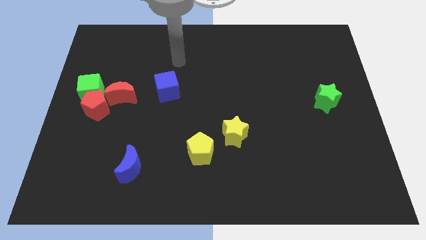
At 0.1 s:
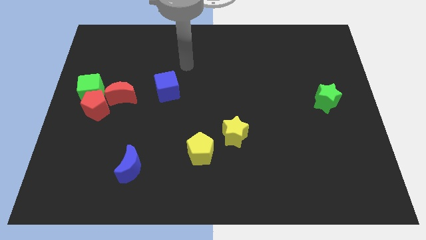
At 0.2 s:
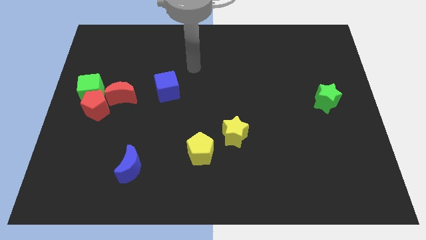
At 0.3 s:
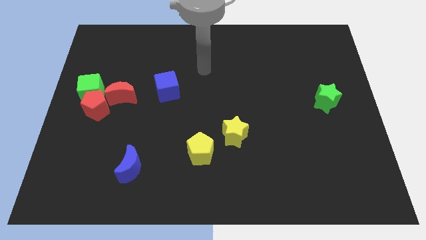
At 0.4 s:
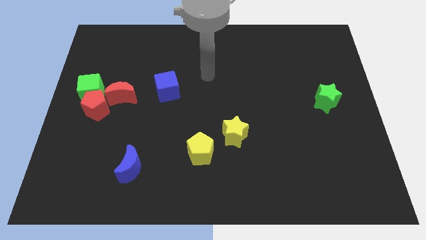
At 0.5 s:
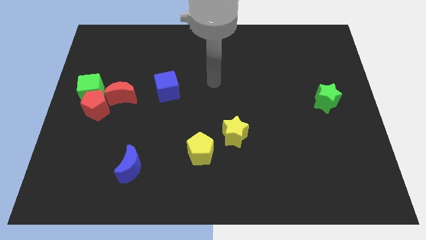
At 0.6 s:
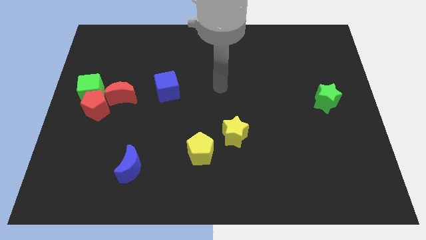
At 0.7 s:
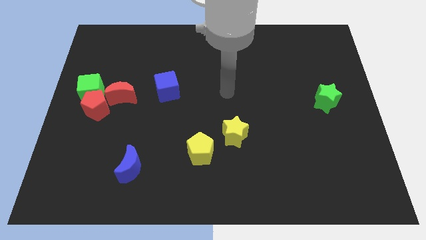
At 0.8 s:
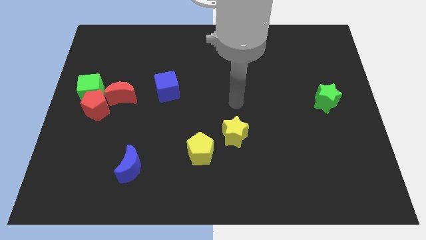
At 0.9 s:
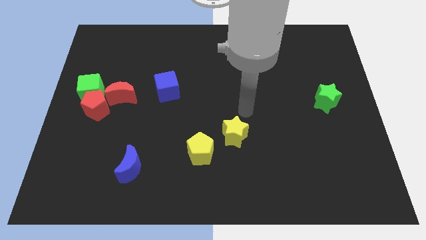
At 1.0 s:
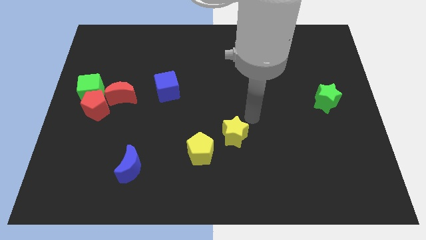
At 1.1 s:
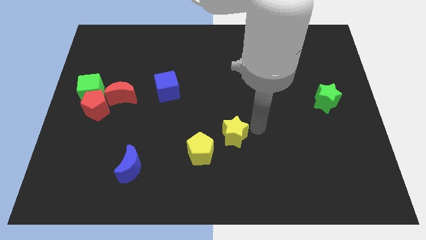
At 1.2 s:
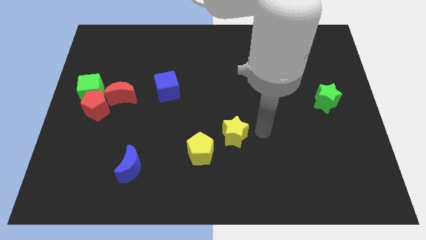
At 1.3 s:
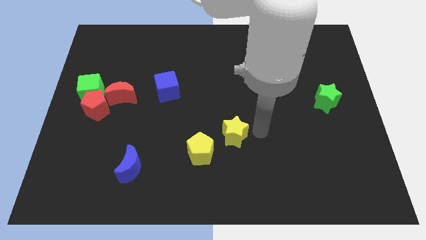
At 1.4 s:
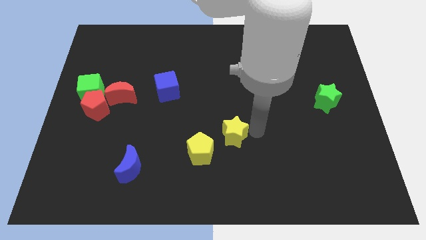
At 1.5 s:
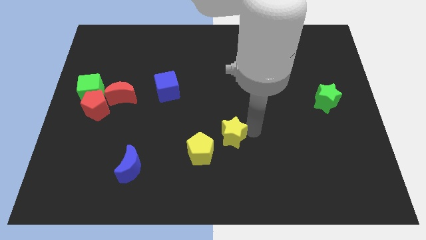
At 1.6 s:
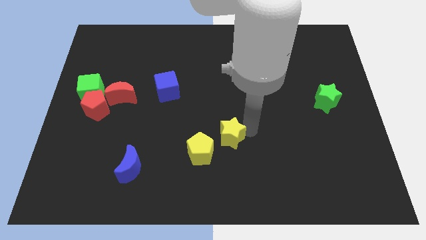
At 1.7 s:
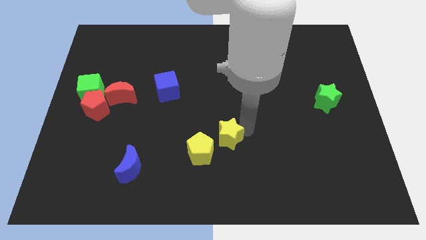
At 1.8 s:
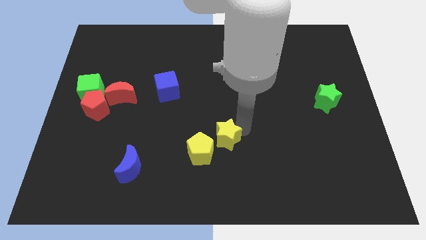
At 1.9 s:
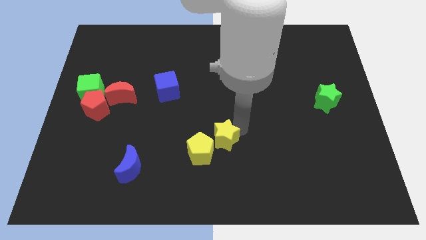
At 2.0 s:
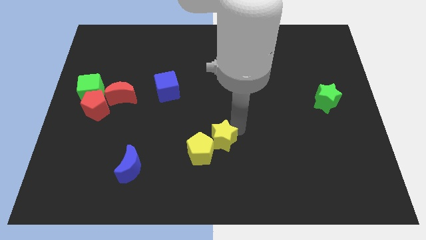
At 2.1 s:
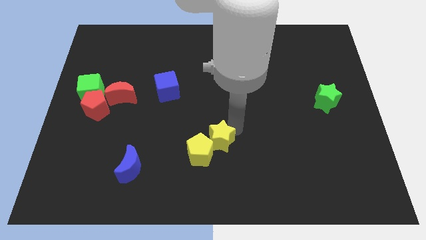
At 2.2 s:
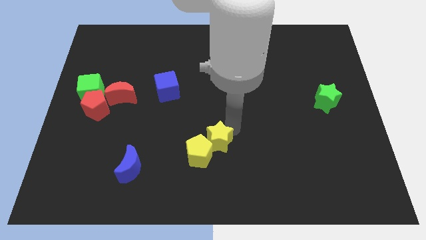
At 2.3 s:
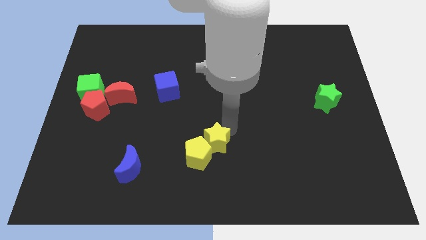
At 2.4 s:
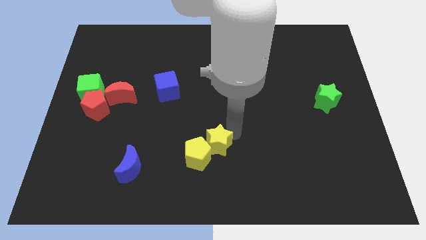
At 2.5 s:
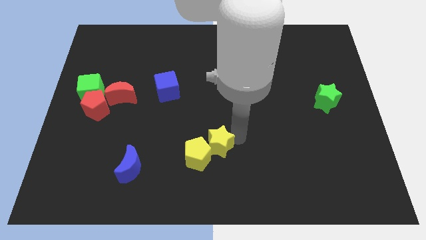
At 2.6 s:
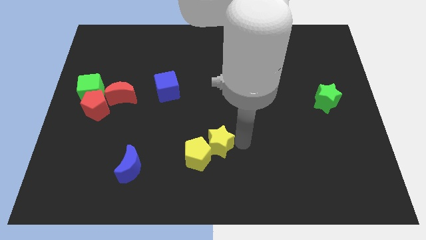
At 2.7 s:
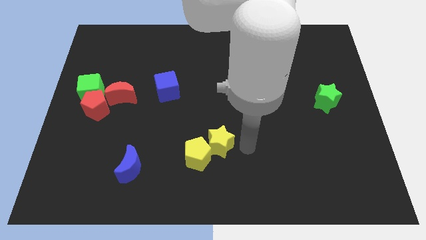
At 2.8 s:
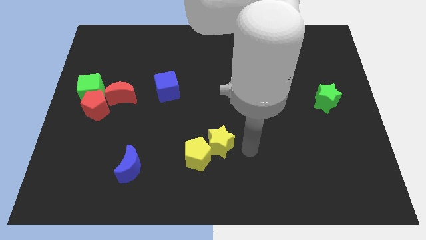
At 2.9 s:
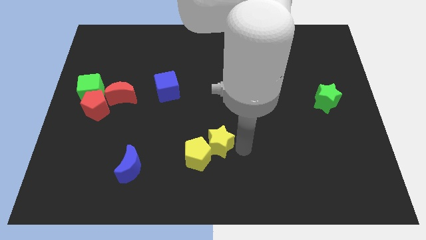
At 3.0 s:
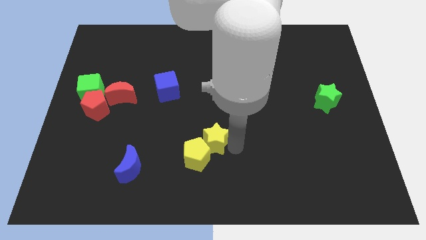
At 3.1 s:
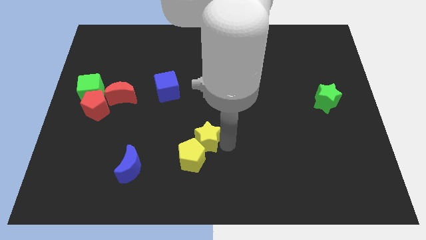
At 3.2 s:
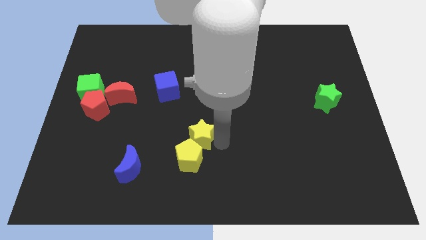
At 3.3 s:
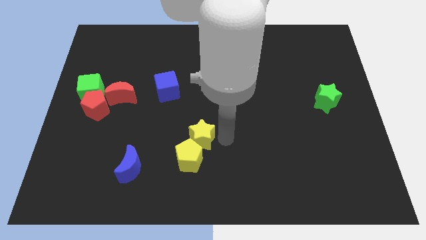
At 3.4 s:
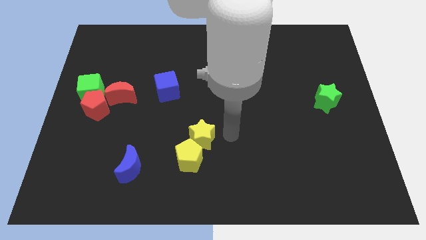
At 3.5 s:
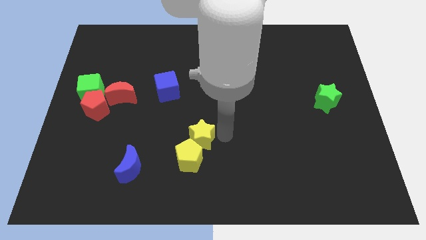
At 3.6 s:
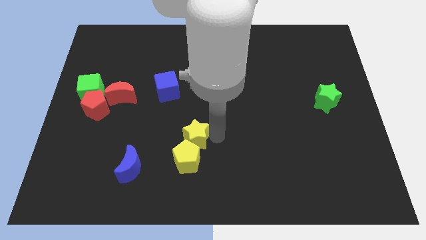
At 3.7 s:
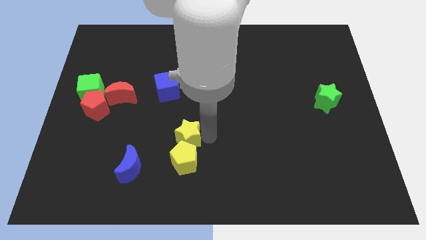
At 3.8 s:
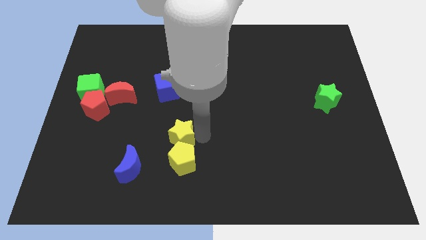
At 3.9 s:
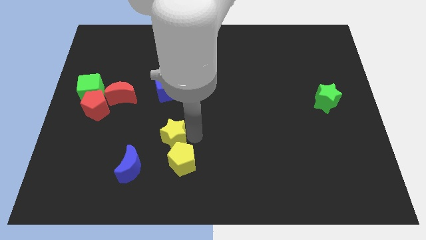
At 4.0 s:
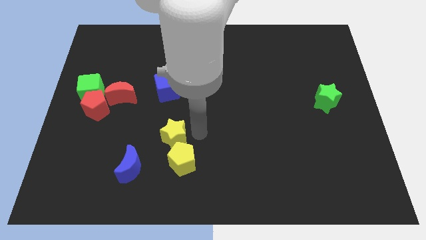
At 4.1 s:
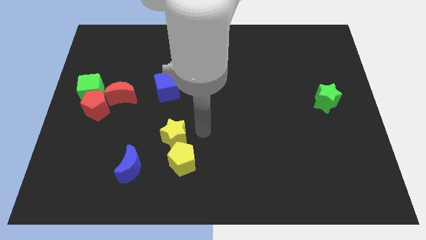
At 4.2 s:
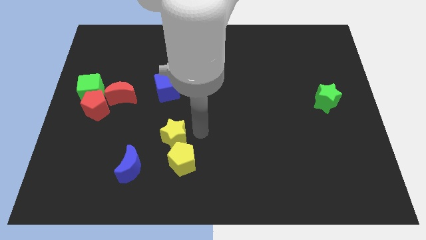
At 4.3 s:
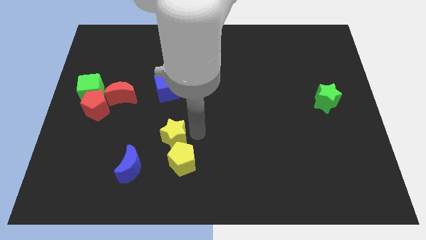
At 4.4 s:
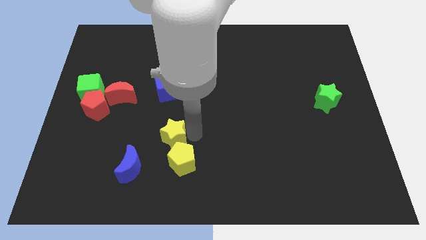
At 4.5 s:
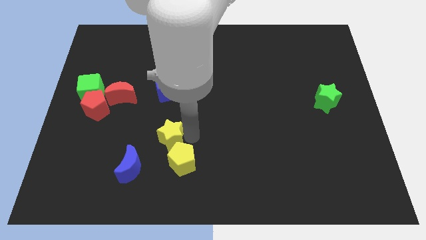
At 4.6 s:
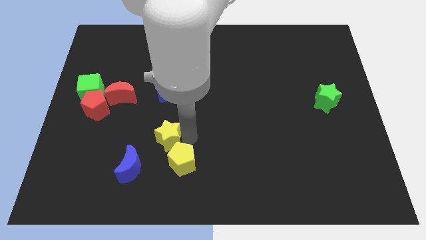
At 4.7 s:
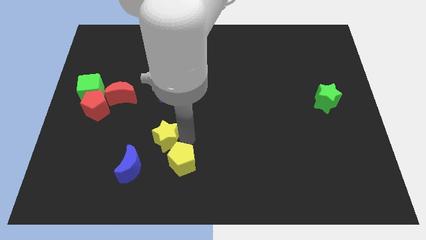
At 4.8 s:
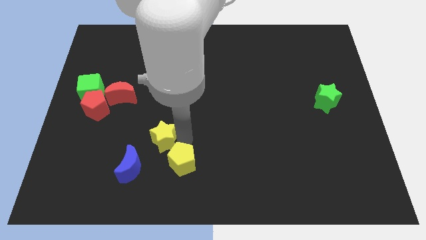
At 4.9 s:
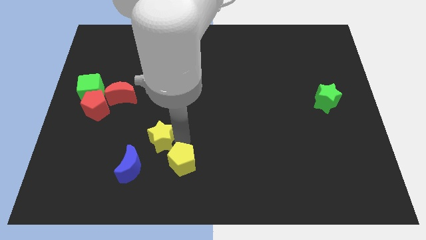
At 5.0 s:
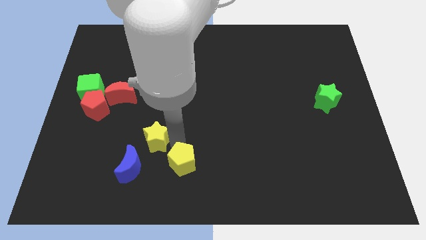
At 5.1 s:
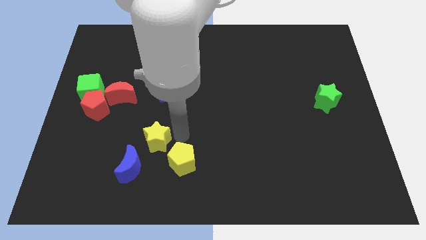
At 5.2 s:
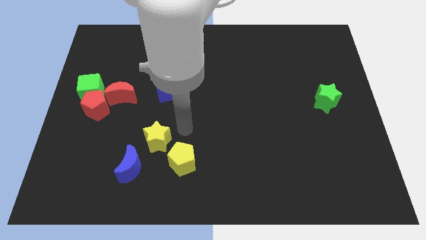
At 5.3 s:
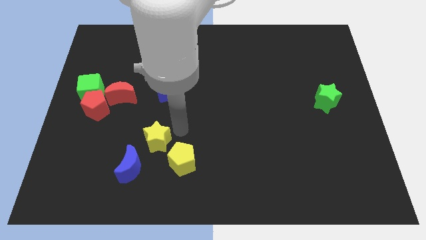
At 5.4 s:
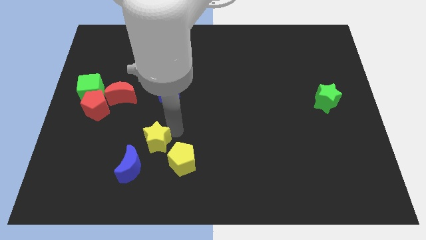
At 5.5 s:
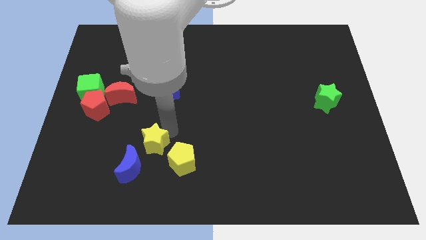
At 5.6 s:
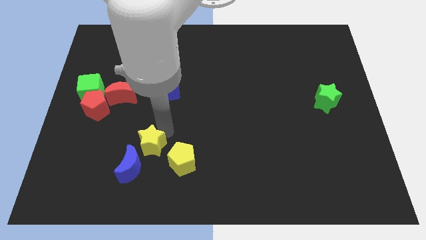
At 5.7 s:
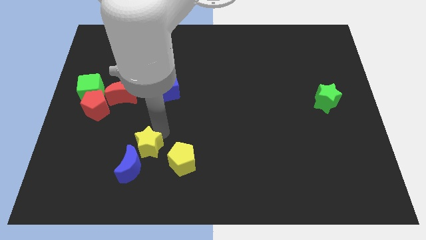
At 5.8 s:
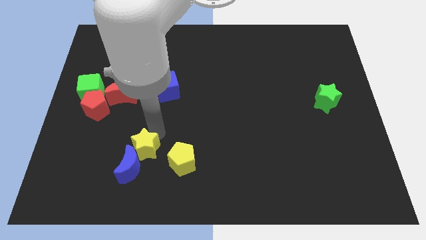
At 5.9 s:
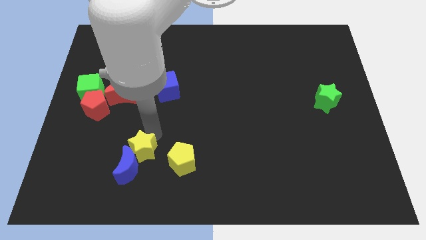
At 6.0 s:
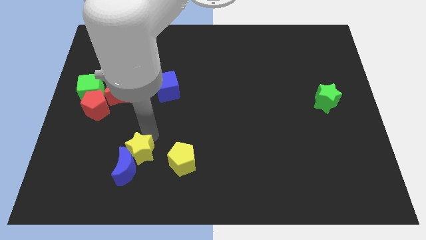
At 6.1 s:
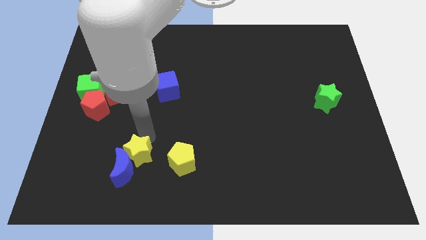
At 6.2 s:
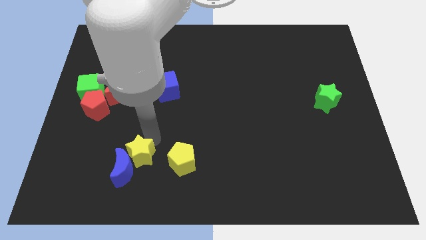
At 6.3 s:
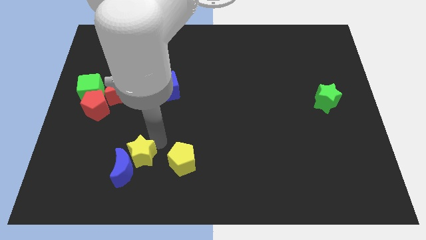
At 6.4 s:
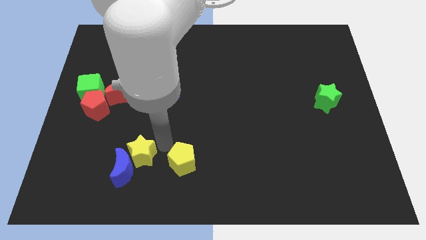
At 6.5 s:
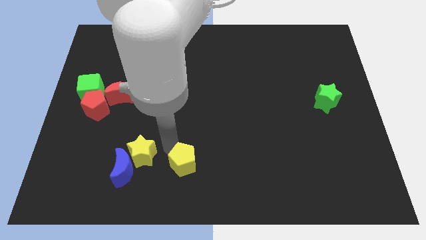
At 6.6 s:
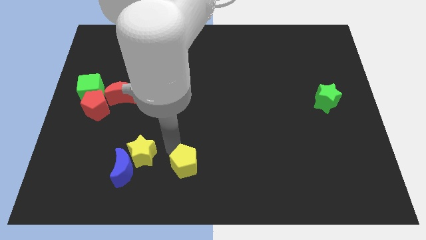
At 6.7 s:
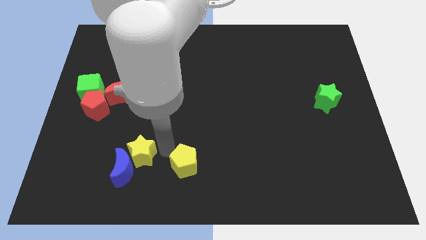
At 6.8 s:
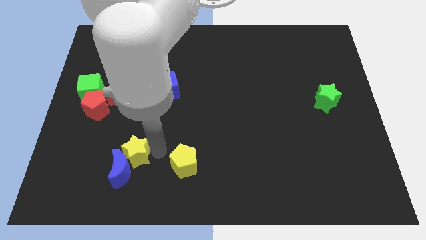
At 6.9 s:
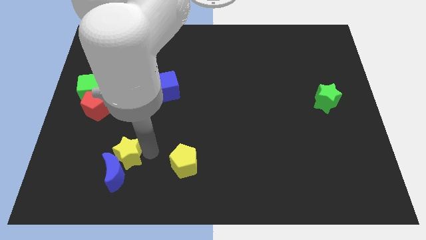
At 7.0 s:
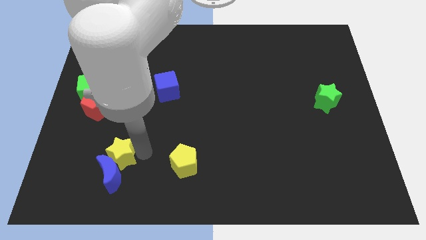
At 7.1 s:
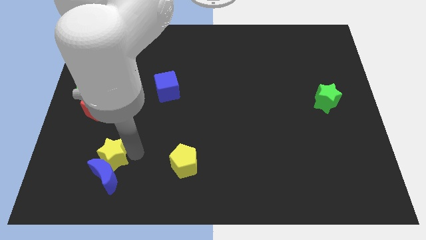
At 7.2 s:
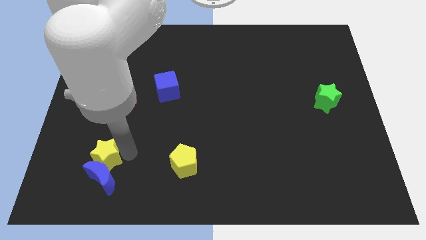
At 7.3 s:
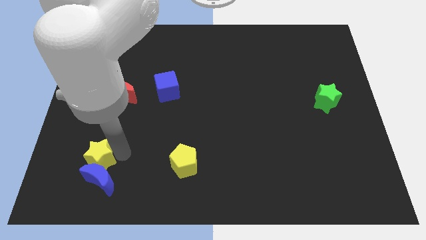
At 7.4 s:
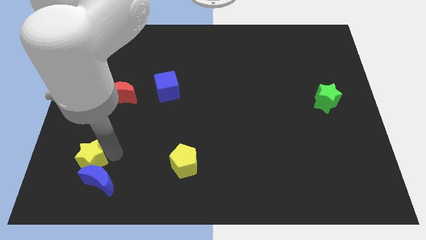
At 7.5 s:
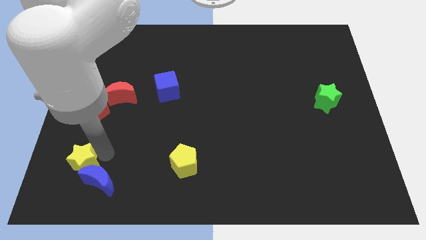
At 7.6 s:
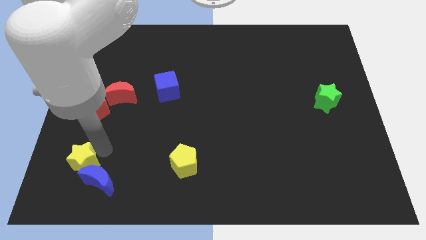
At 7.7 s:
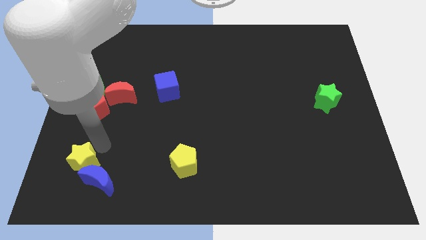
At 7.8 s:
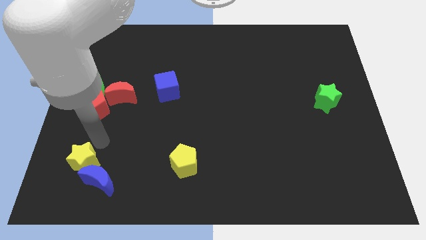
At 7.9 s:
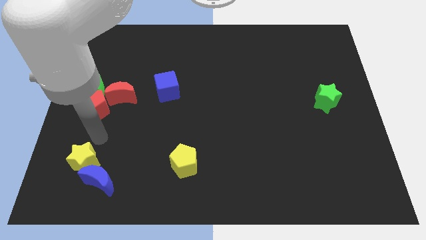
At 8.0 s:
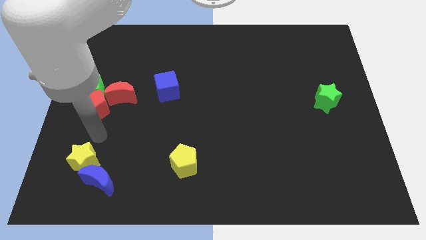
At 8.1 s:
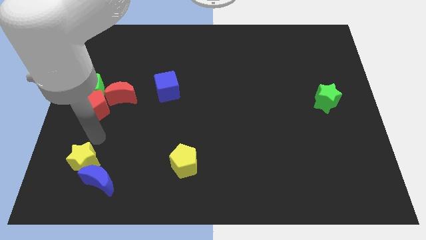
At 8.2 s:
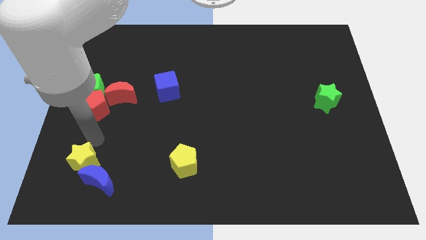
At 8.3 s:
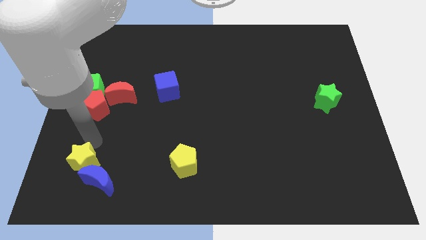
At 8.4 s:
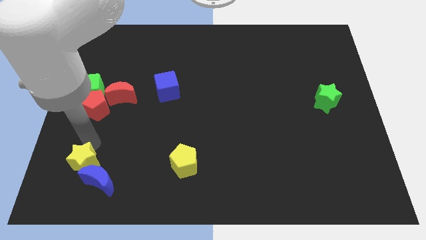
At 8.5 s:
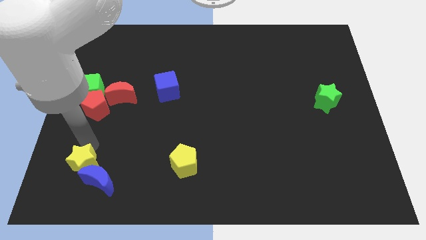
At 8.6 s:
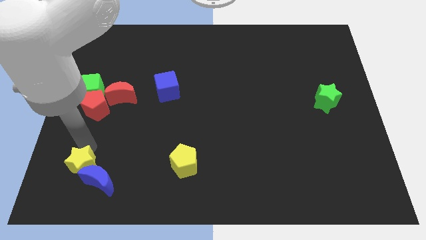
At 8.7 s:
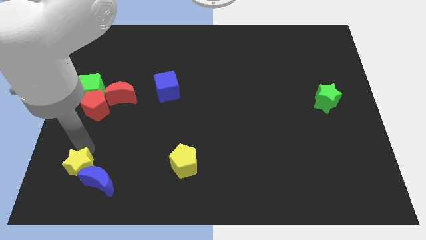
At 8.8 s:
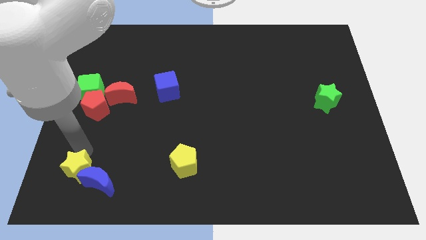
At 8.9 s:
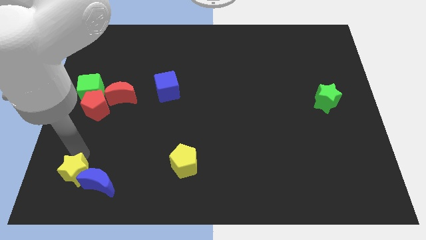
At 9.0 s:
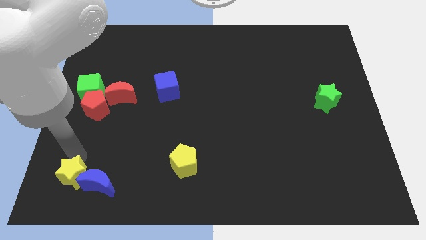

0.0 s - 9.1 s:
put the yellow star to the bottom left corner
